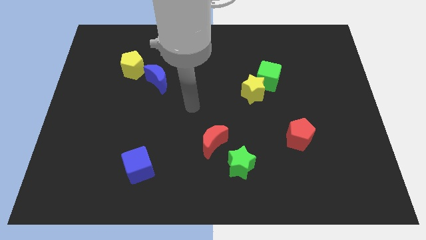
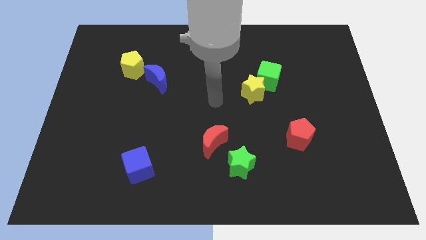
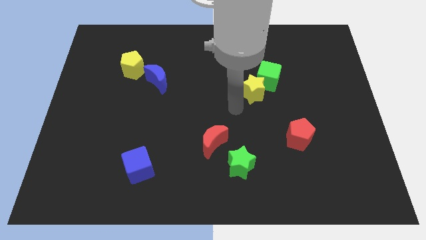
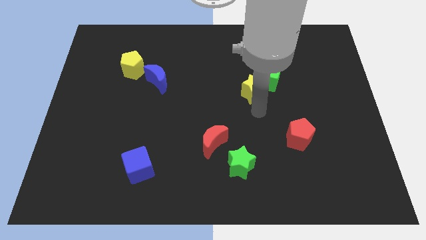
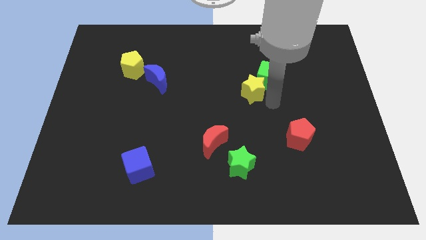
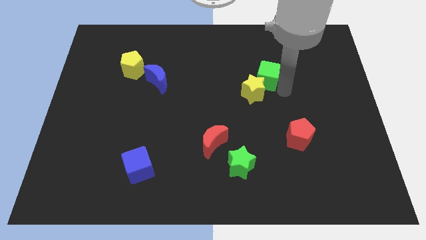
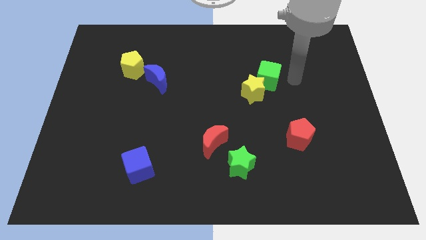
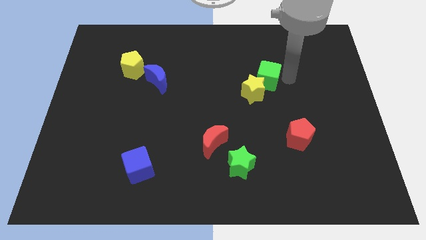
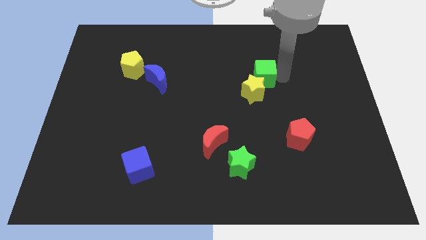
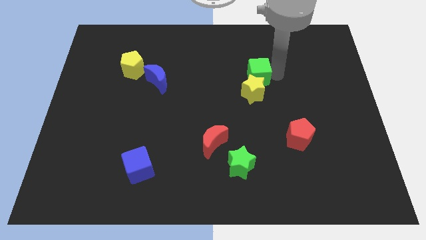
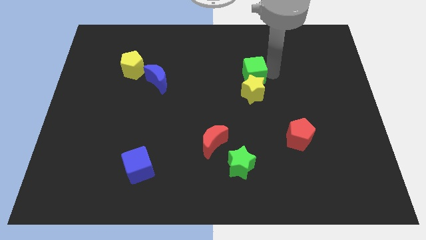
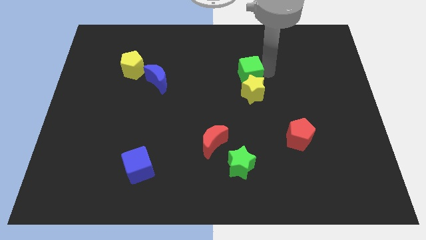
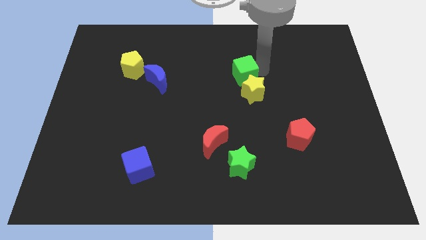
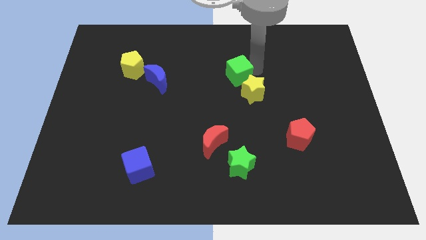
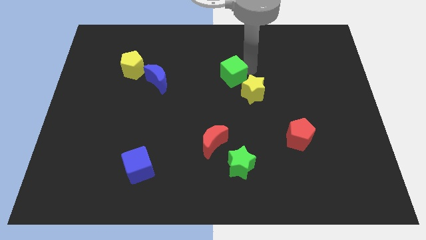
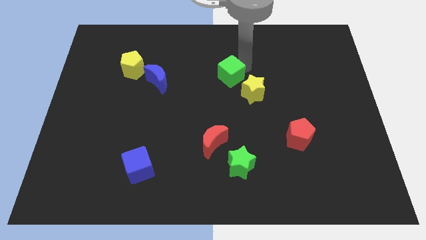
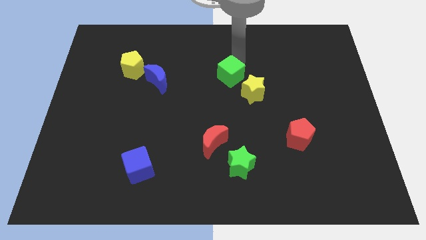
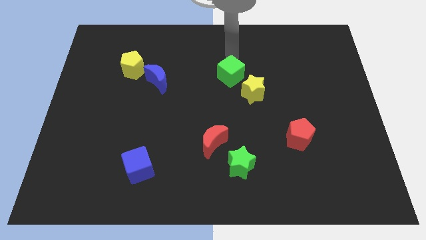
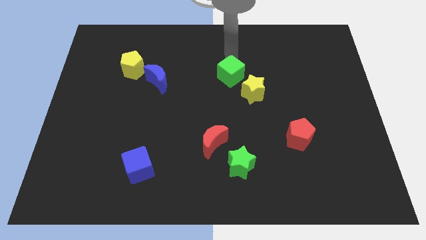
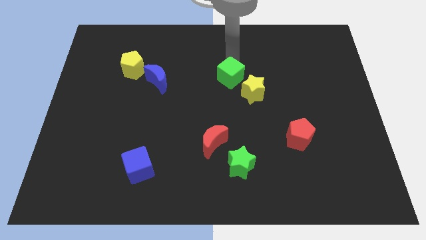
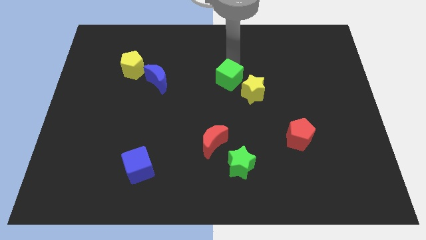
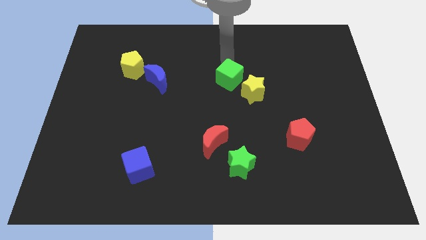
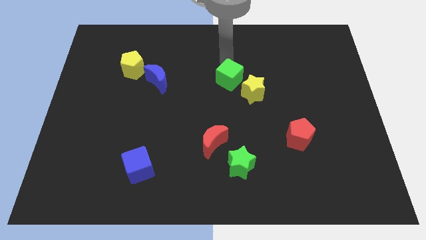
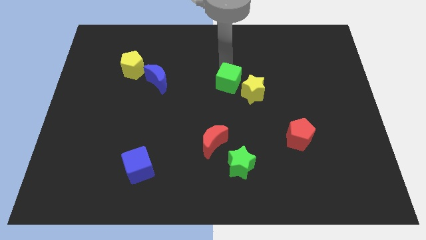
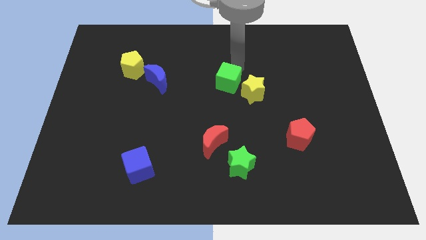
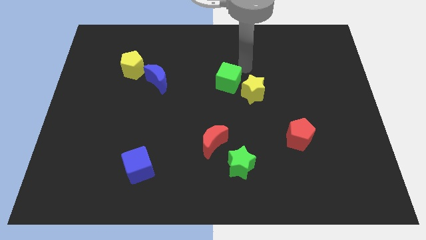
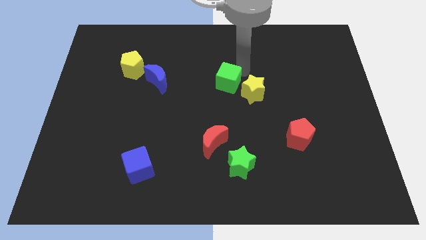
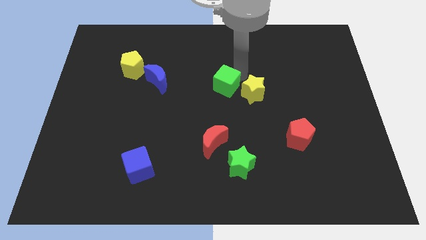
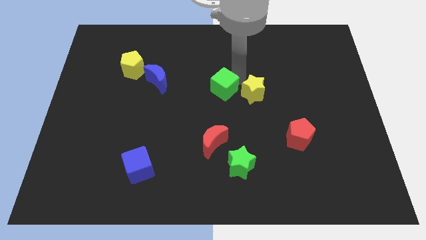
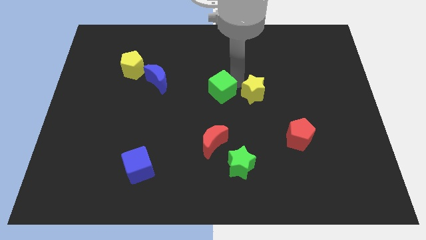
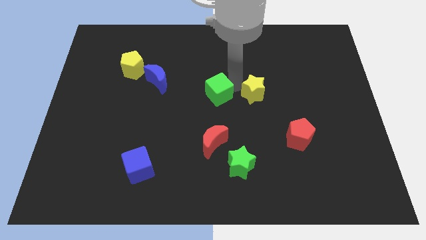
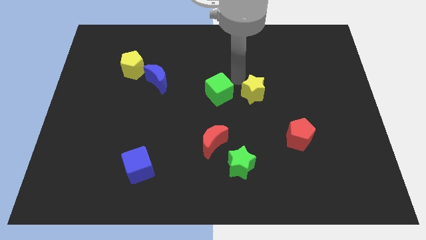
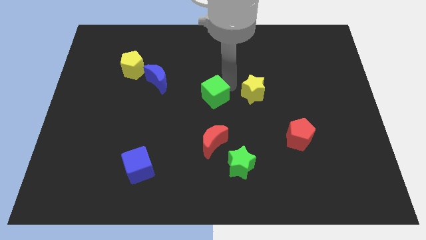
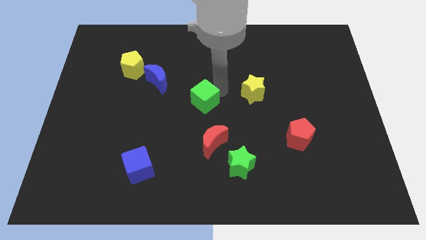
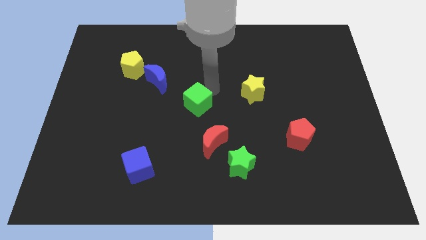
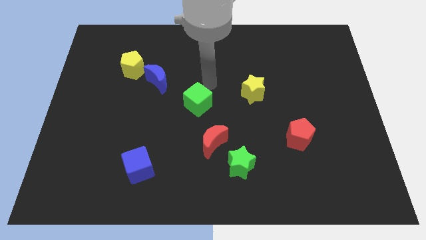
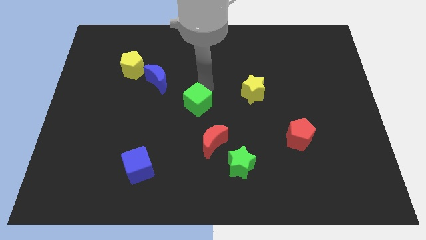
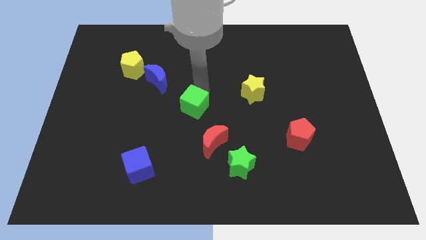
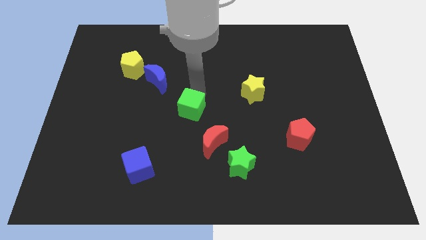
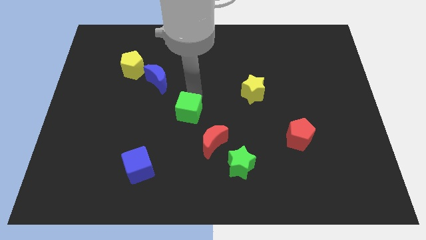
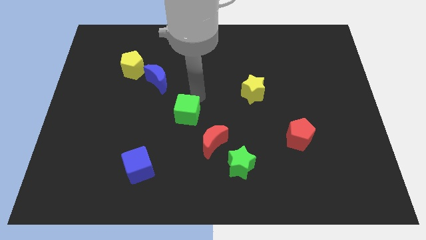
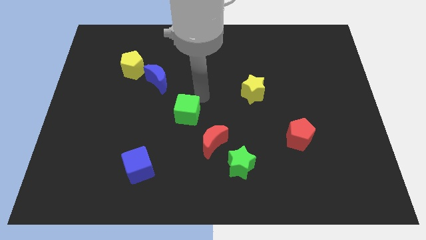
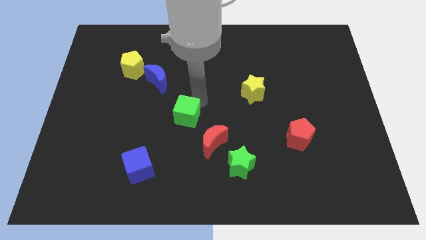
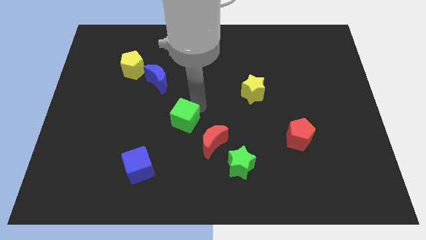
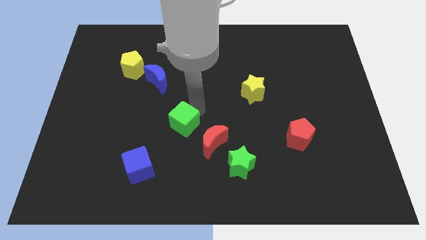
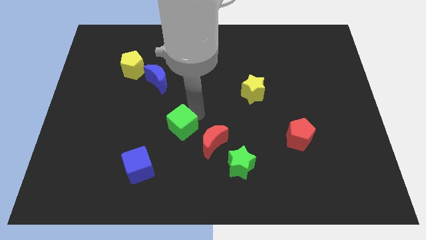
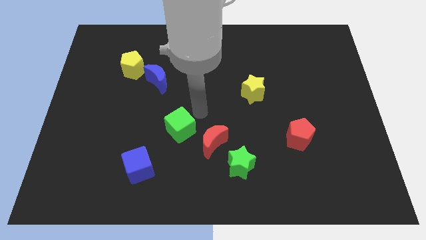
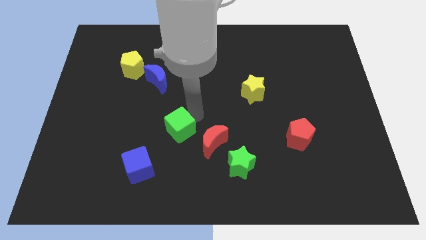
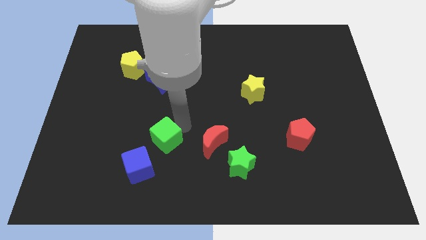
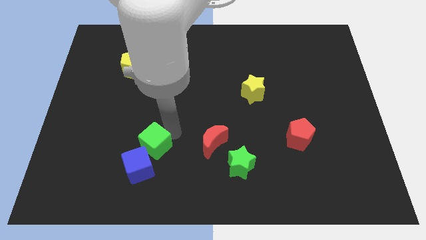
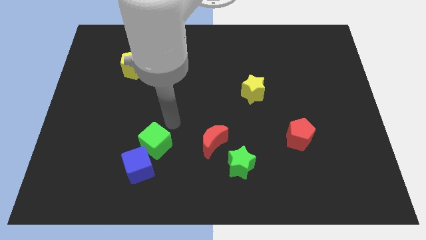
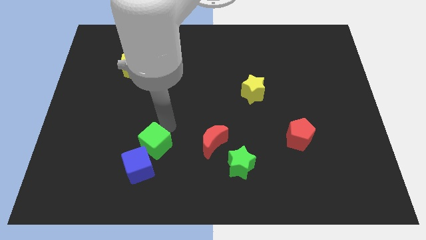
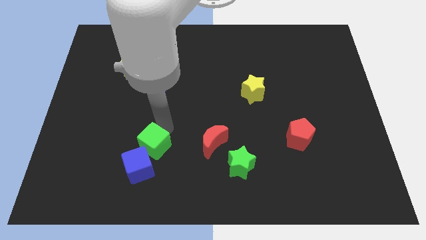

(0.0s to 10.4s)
slide the green cube next to the blue cube

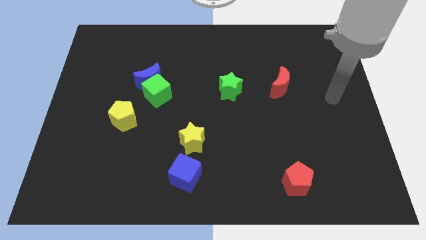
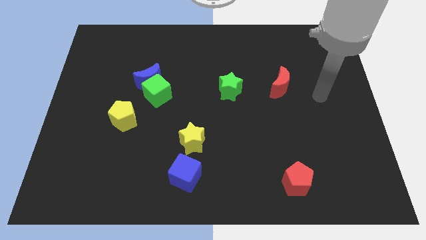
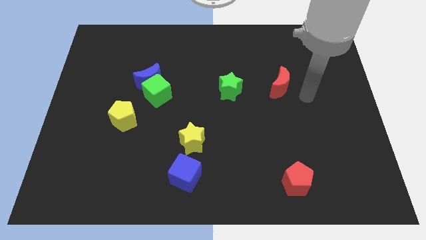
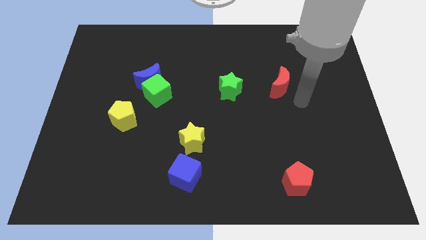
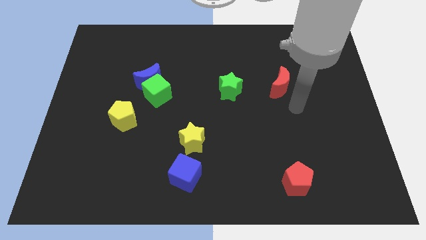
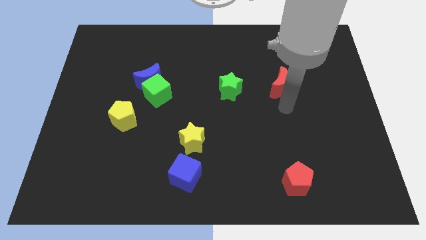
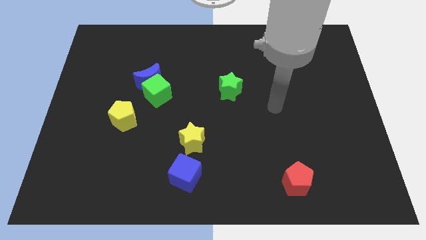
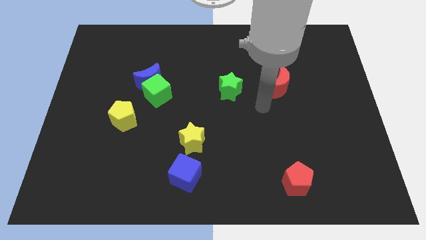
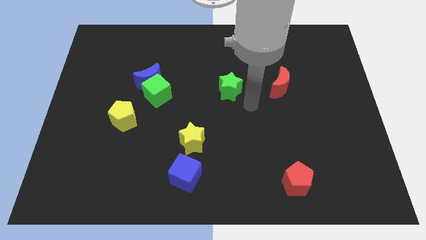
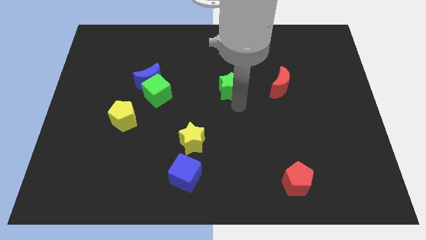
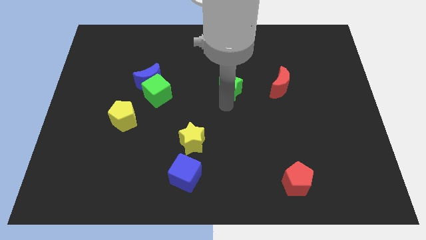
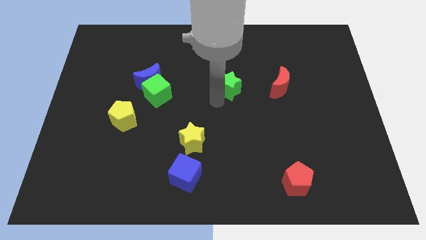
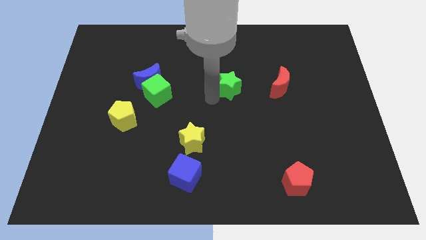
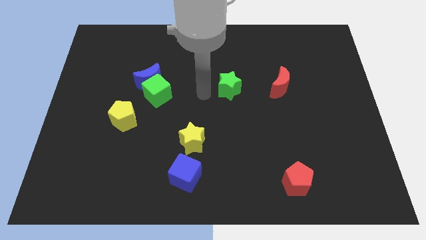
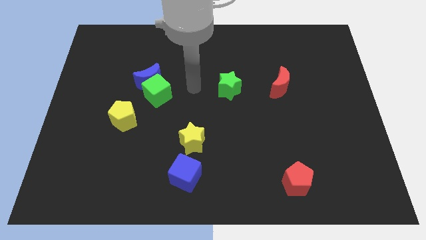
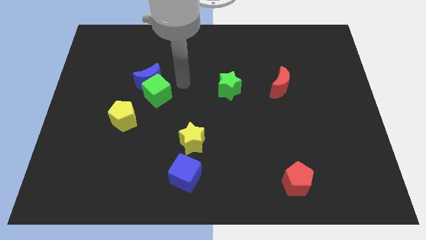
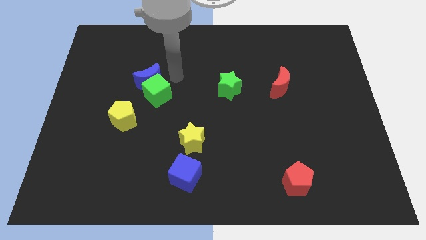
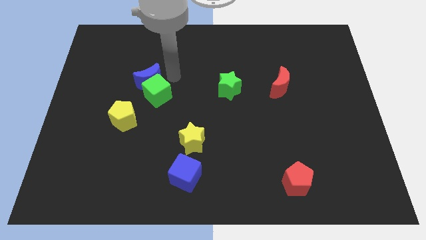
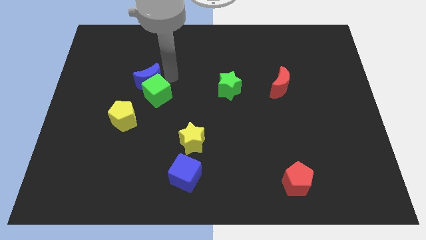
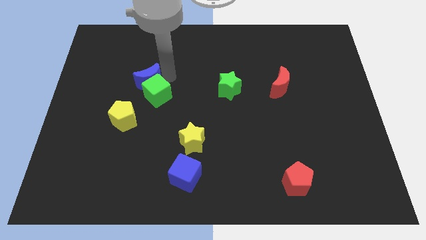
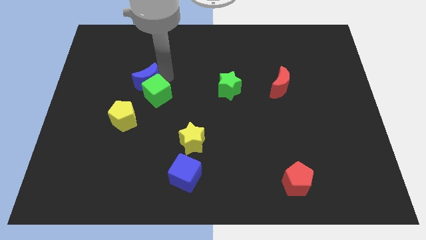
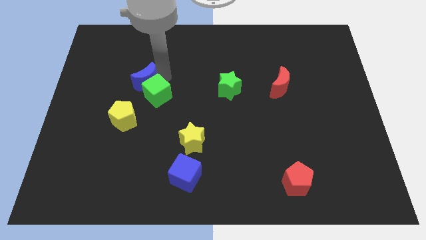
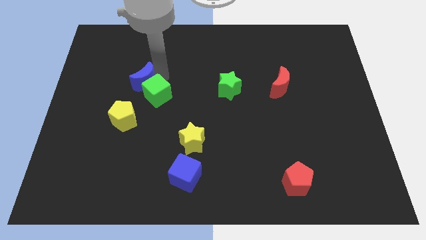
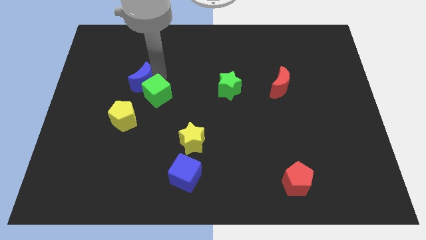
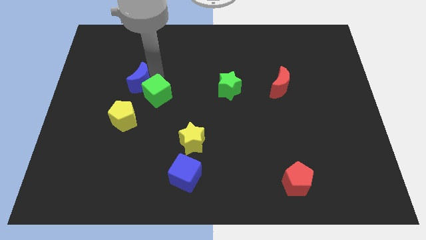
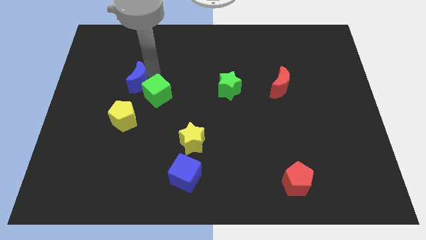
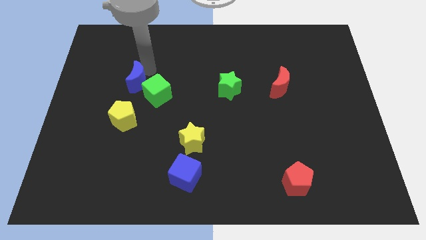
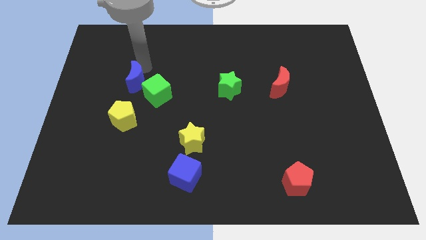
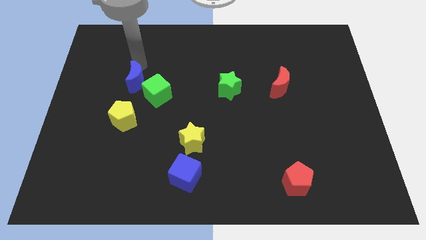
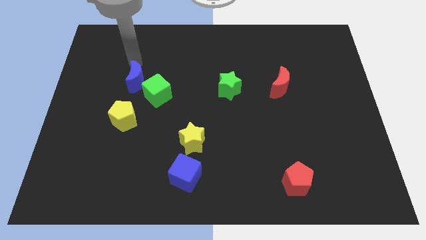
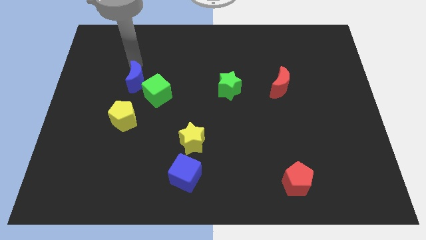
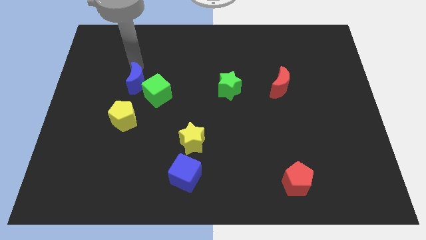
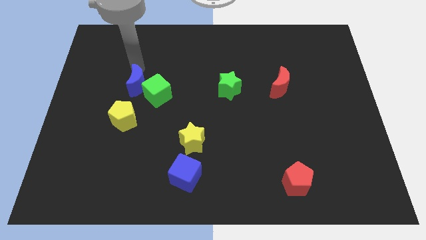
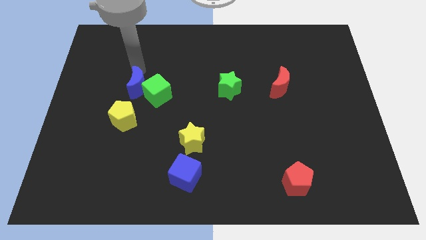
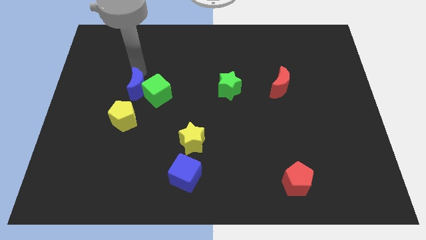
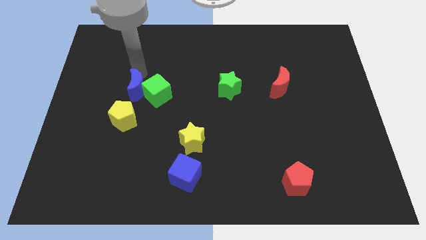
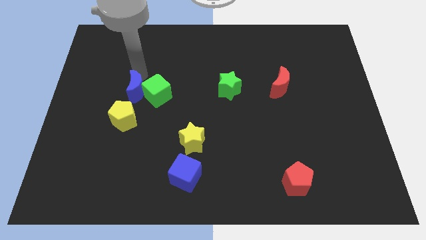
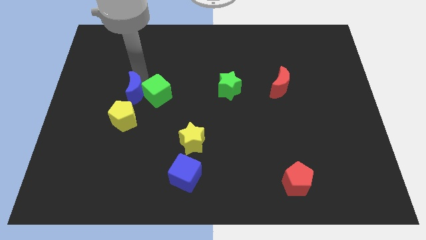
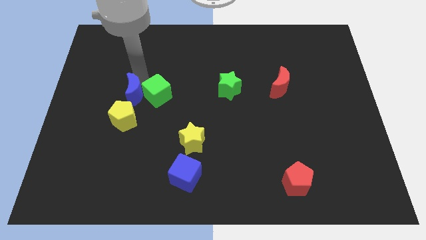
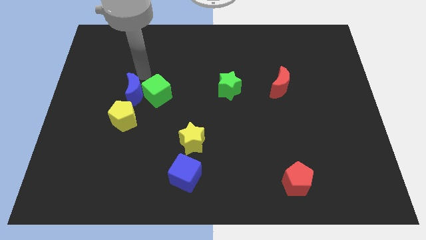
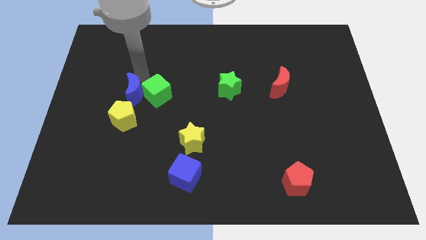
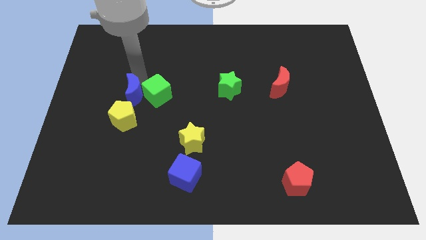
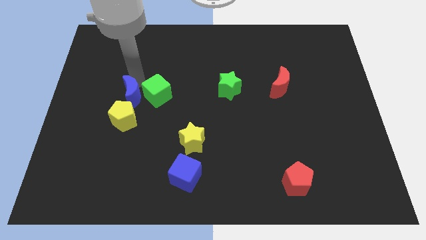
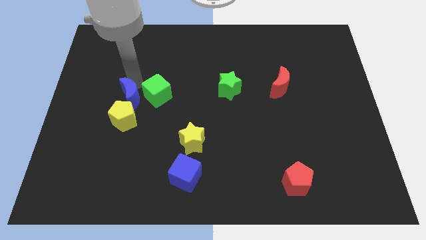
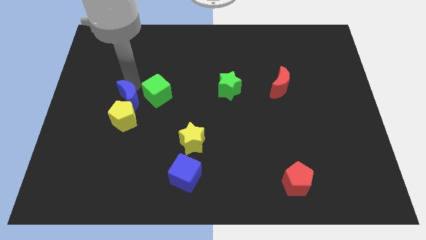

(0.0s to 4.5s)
slide the blue moon close to the yellow pentagon
